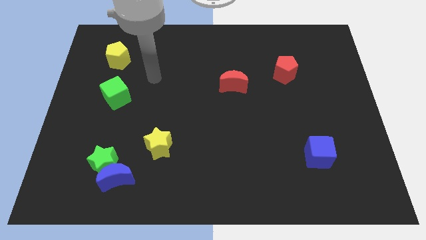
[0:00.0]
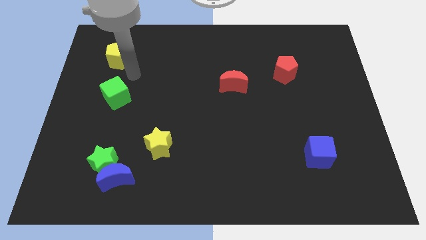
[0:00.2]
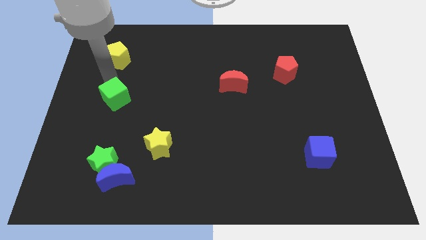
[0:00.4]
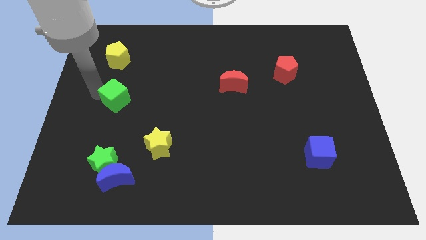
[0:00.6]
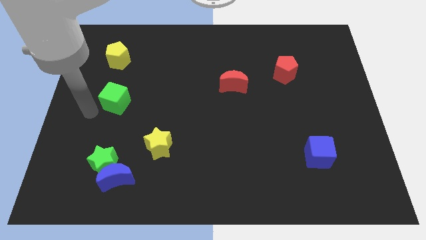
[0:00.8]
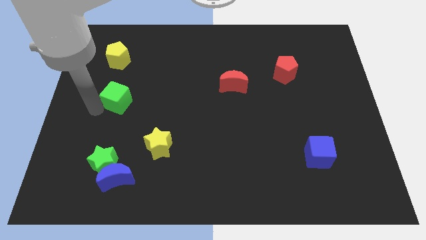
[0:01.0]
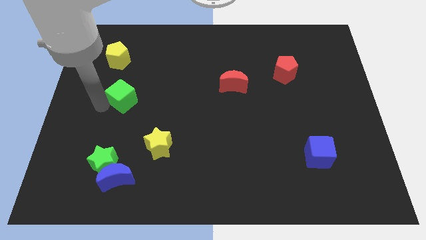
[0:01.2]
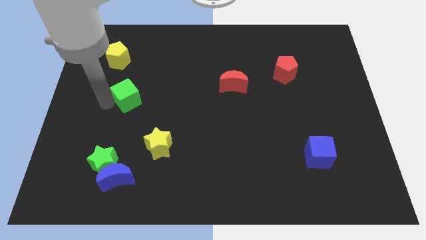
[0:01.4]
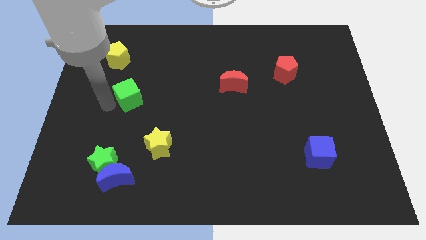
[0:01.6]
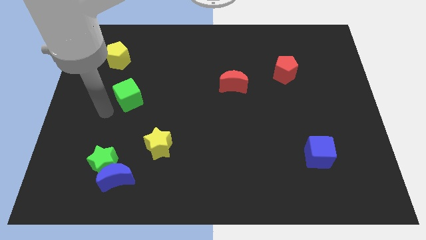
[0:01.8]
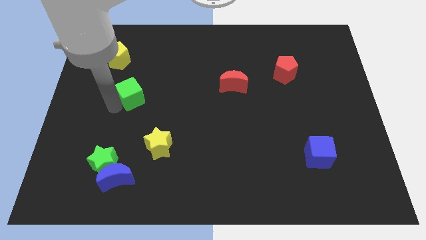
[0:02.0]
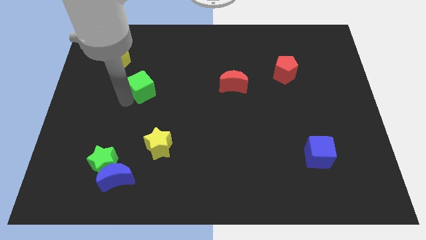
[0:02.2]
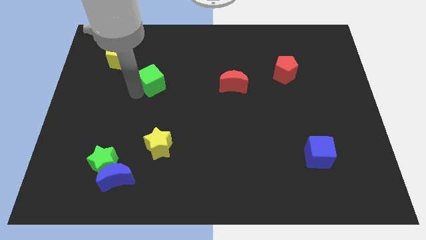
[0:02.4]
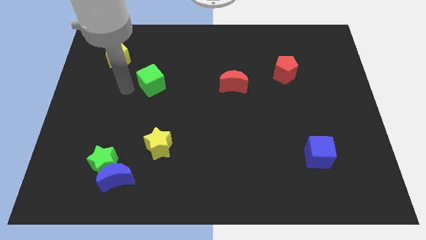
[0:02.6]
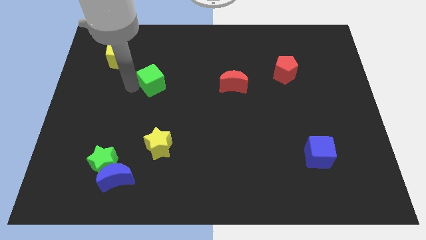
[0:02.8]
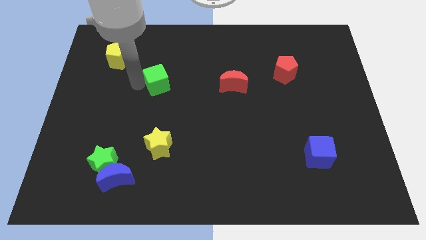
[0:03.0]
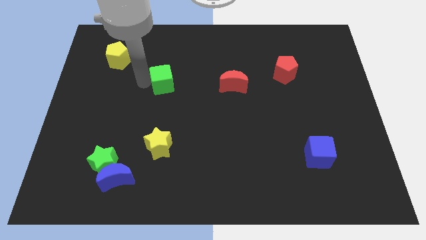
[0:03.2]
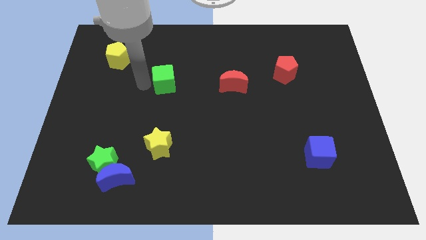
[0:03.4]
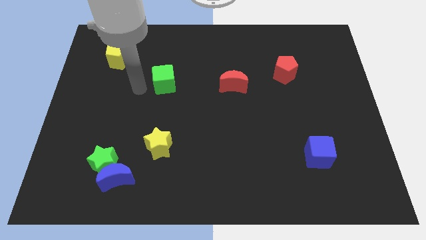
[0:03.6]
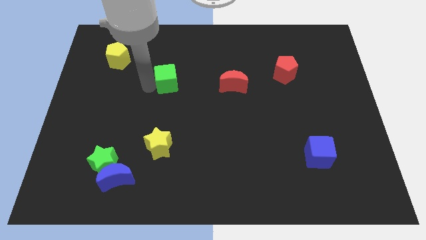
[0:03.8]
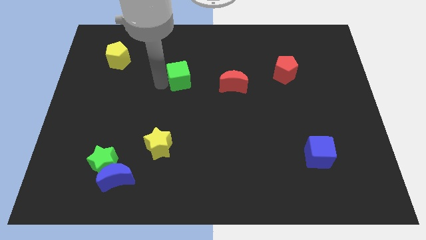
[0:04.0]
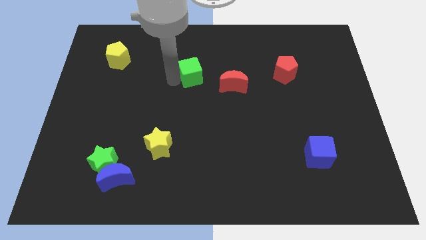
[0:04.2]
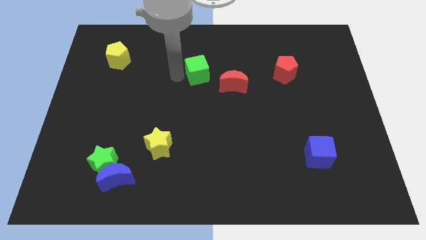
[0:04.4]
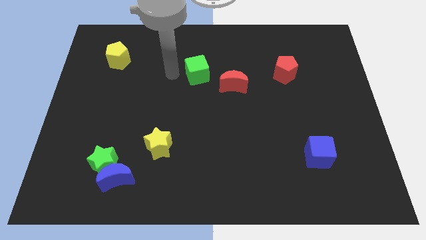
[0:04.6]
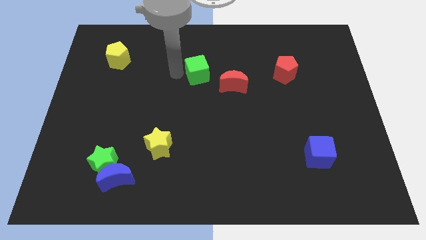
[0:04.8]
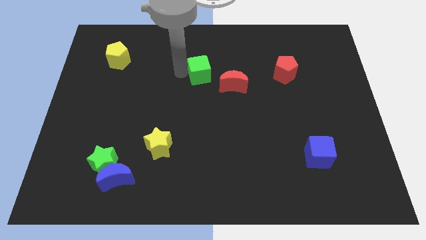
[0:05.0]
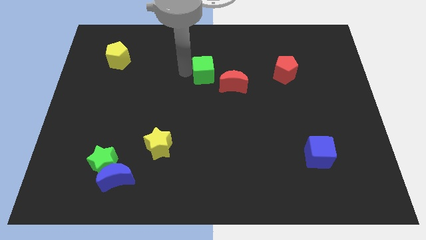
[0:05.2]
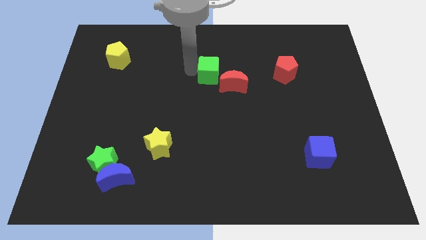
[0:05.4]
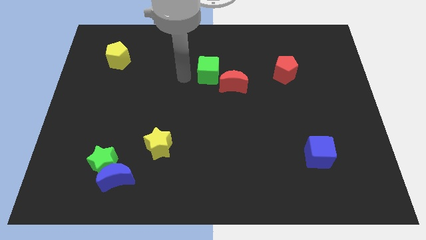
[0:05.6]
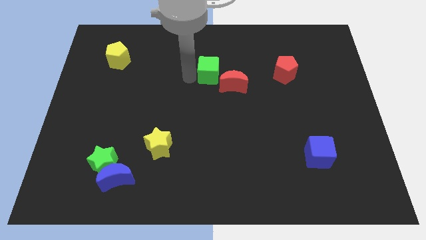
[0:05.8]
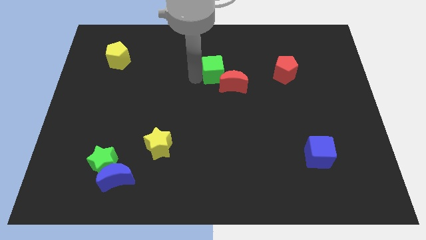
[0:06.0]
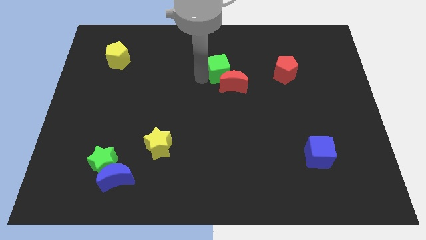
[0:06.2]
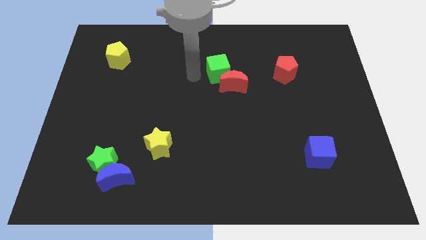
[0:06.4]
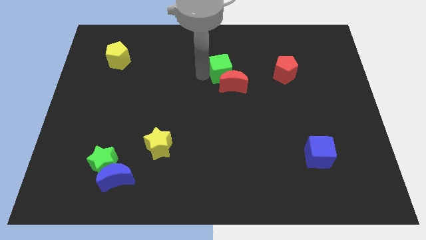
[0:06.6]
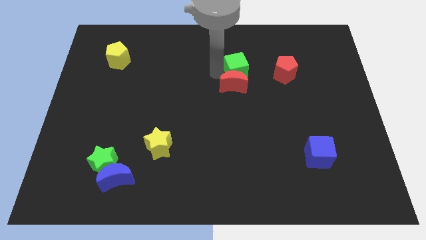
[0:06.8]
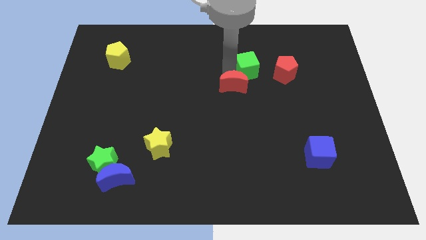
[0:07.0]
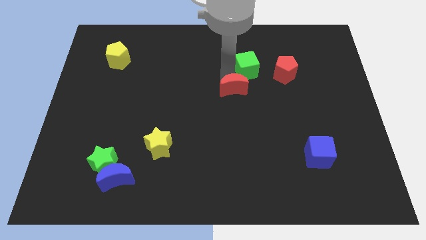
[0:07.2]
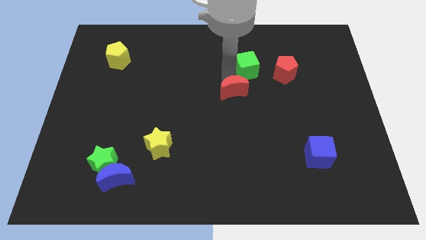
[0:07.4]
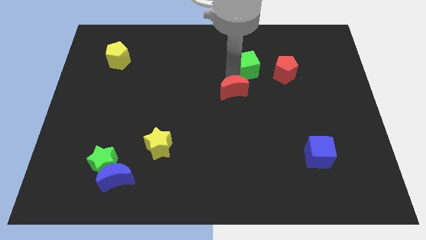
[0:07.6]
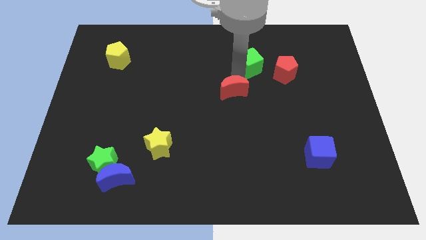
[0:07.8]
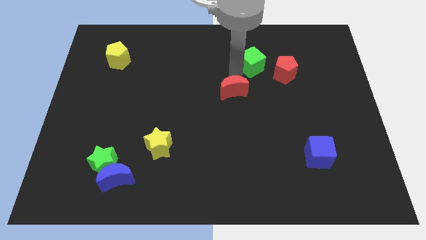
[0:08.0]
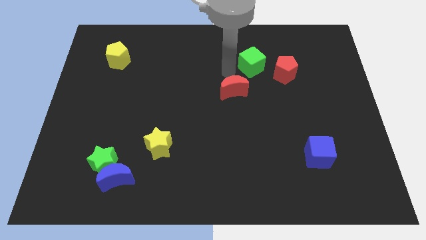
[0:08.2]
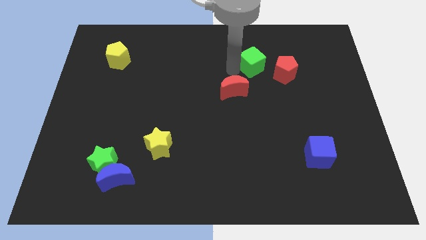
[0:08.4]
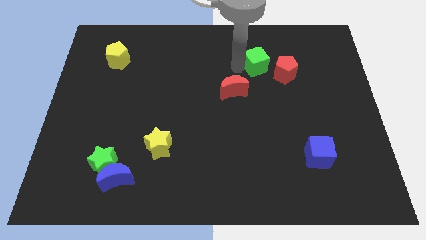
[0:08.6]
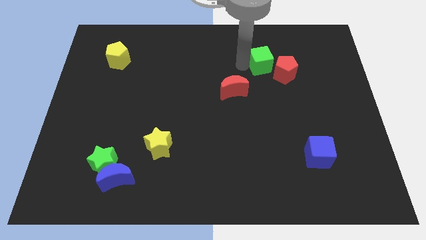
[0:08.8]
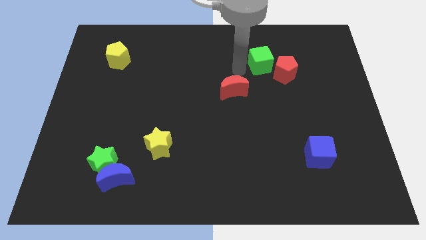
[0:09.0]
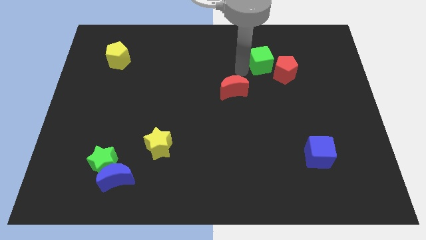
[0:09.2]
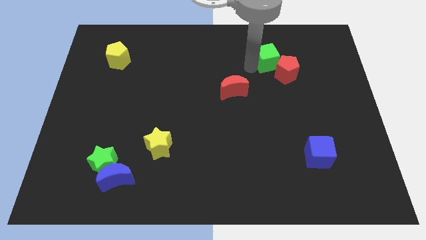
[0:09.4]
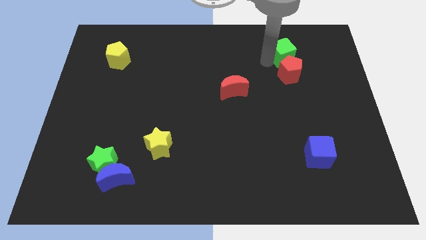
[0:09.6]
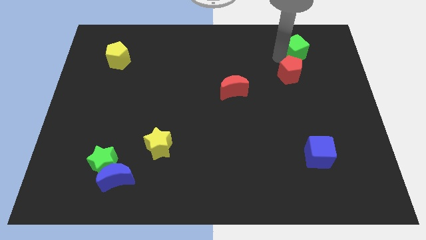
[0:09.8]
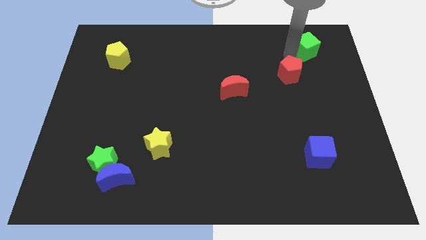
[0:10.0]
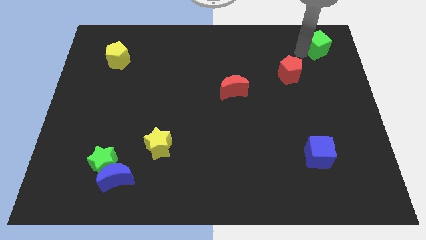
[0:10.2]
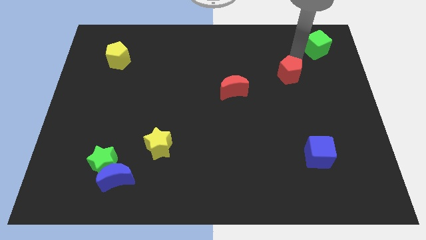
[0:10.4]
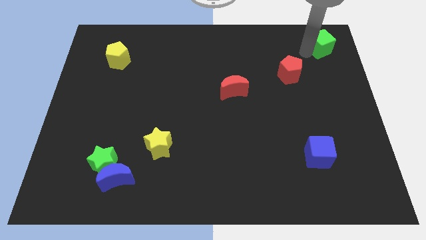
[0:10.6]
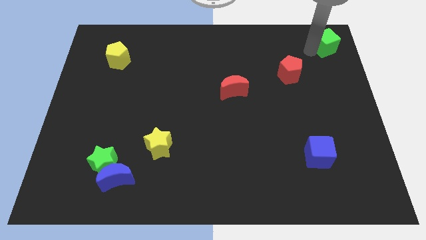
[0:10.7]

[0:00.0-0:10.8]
put the green cube to the top right of the board

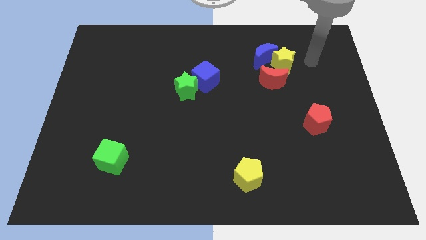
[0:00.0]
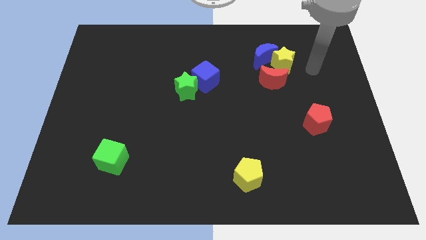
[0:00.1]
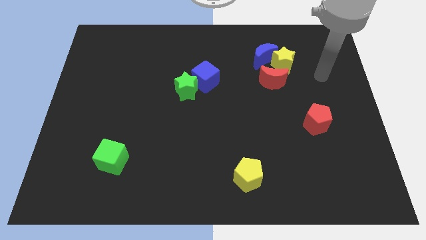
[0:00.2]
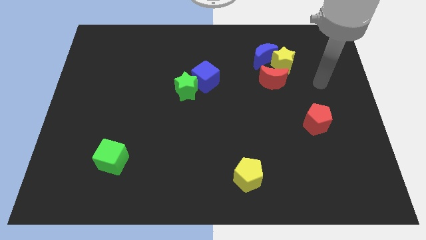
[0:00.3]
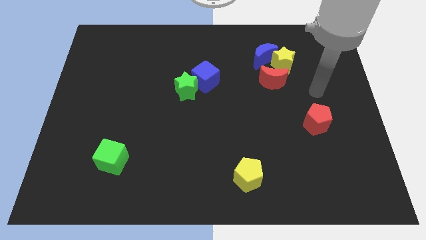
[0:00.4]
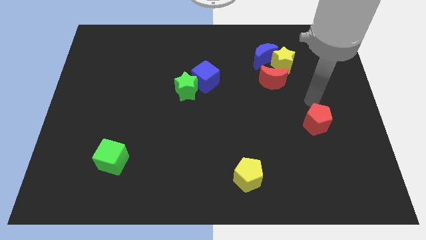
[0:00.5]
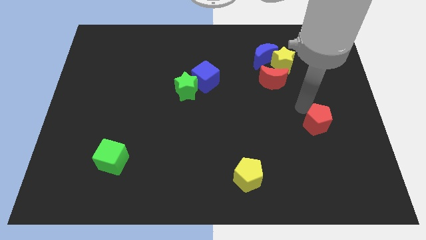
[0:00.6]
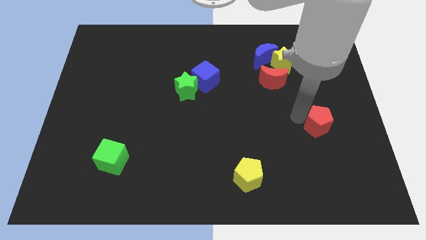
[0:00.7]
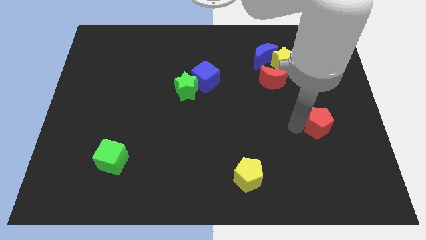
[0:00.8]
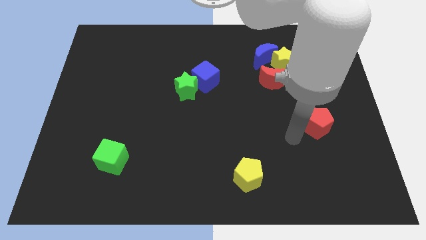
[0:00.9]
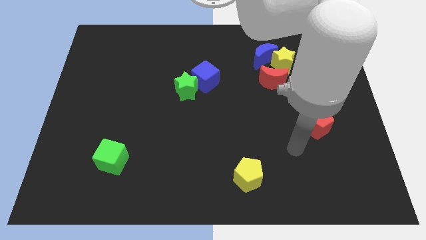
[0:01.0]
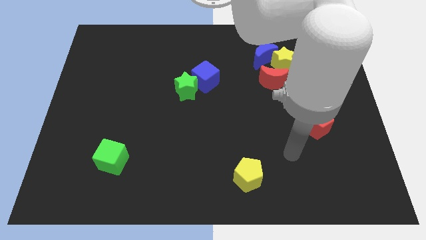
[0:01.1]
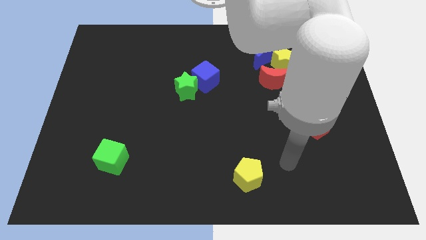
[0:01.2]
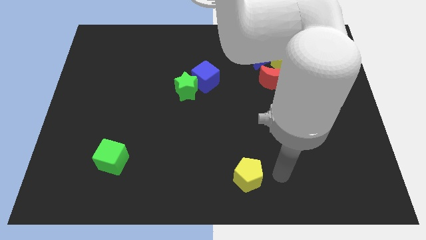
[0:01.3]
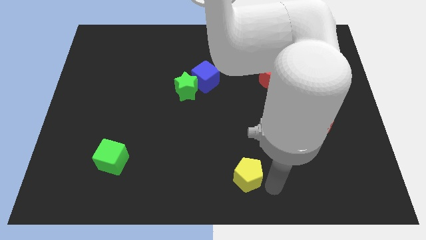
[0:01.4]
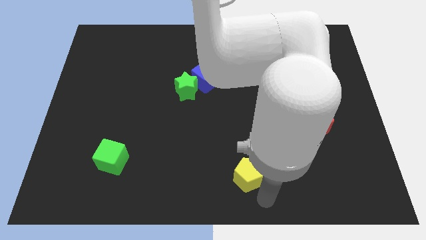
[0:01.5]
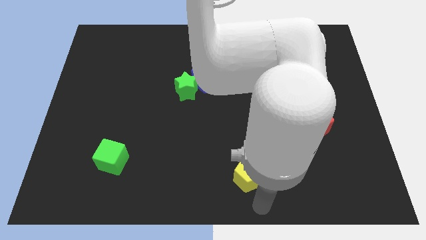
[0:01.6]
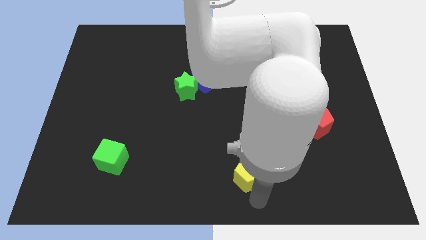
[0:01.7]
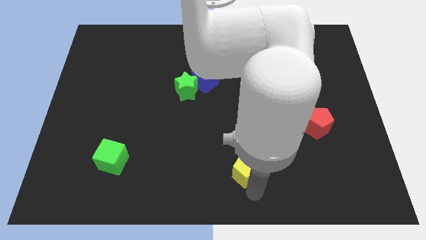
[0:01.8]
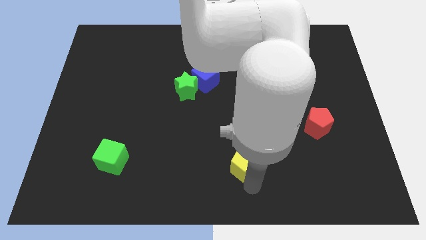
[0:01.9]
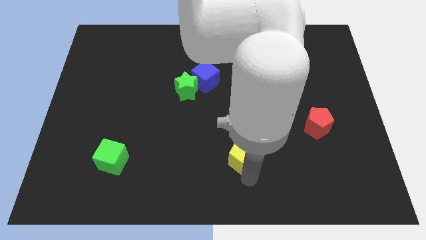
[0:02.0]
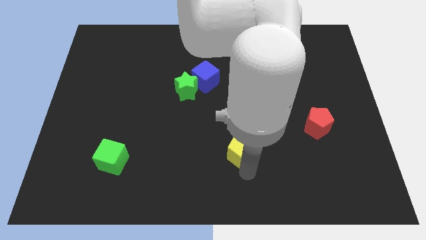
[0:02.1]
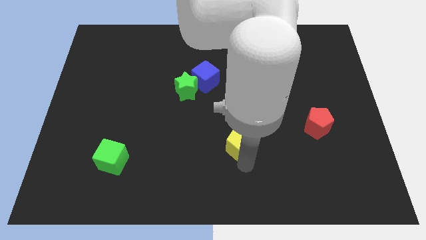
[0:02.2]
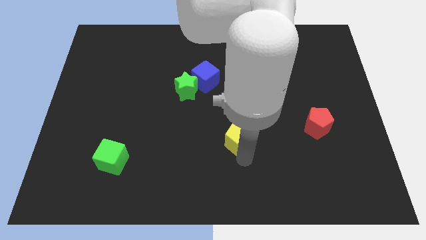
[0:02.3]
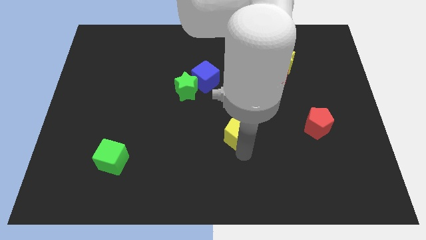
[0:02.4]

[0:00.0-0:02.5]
move the yellow pentagon to the center
